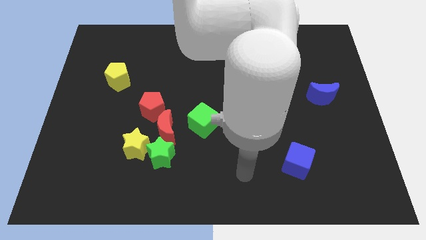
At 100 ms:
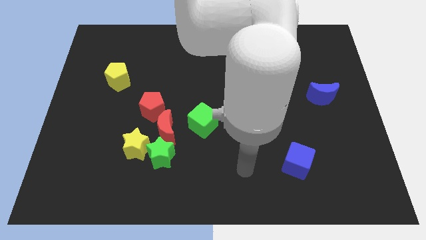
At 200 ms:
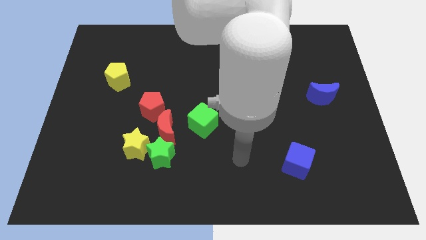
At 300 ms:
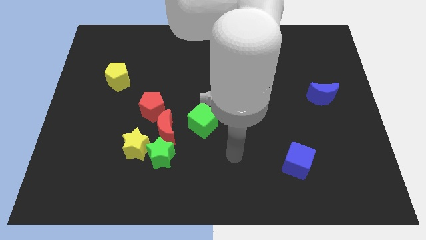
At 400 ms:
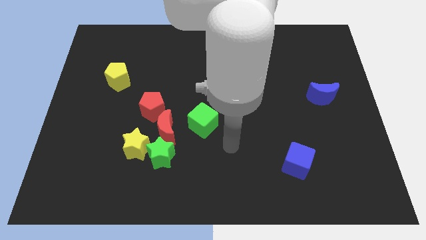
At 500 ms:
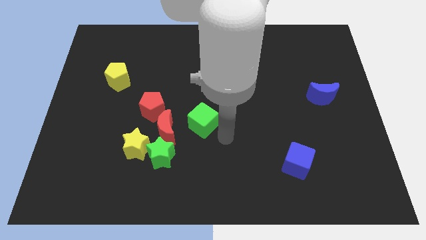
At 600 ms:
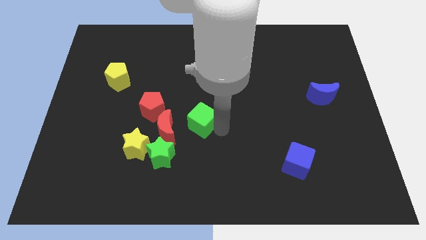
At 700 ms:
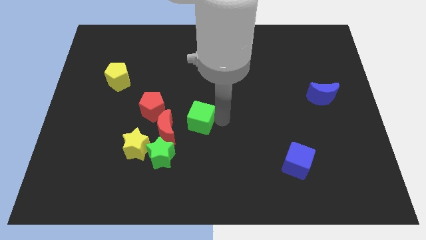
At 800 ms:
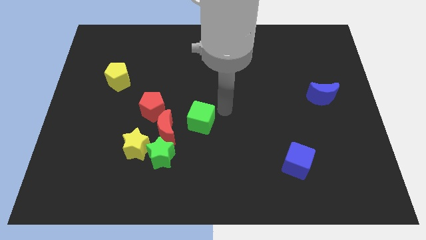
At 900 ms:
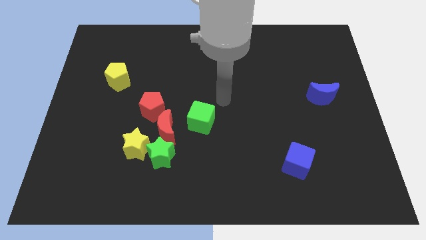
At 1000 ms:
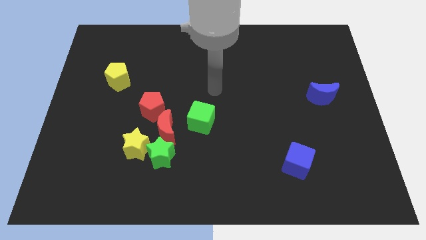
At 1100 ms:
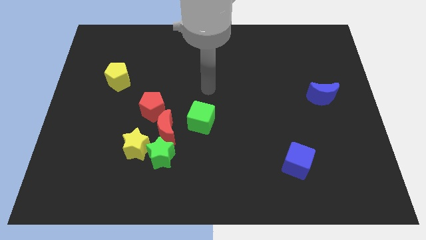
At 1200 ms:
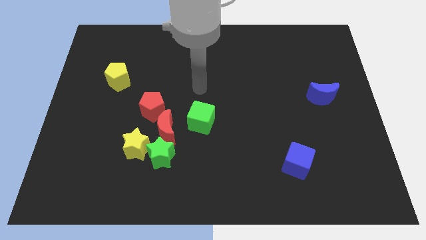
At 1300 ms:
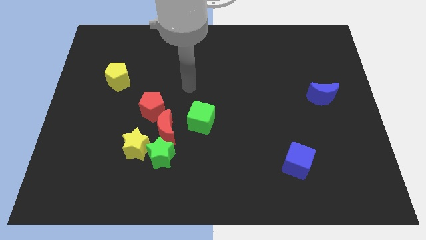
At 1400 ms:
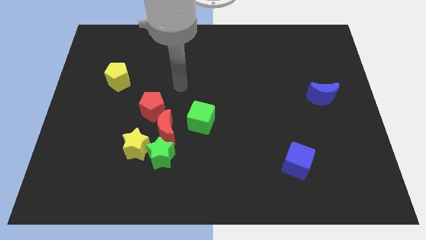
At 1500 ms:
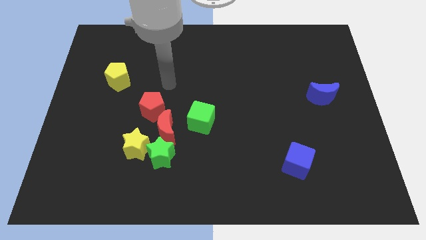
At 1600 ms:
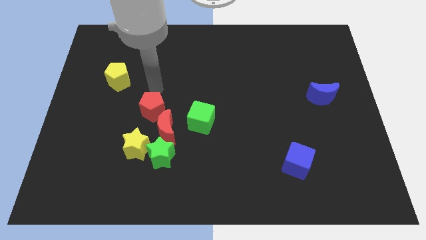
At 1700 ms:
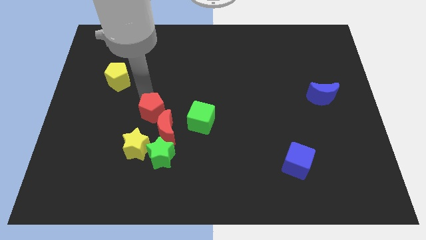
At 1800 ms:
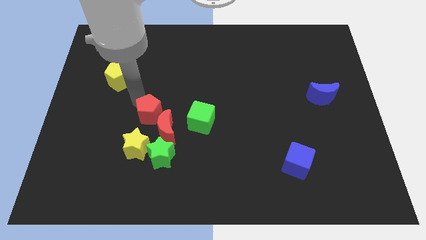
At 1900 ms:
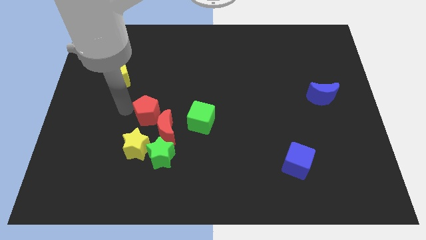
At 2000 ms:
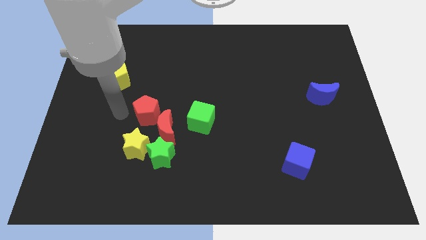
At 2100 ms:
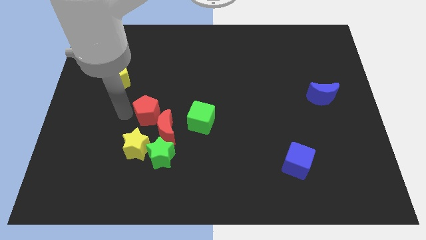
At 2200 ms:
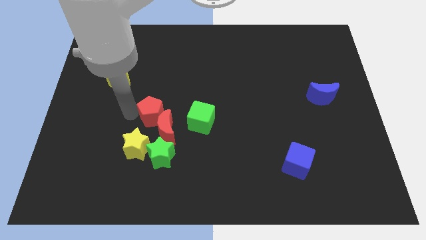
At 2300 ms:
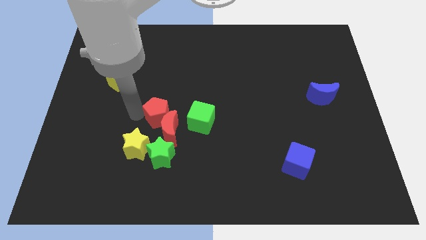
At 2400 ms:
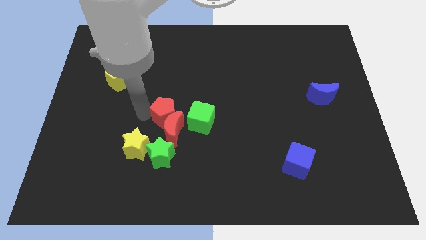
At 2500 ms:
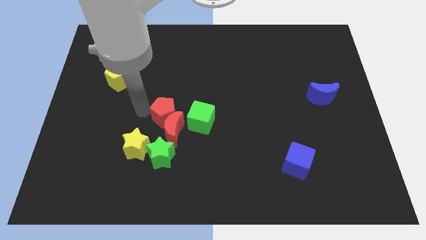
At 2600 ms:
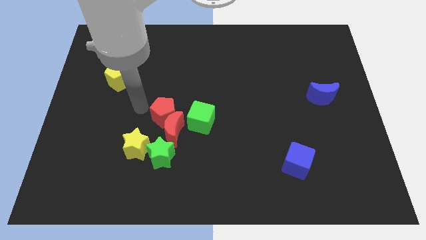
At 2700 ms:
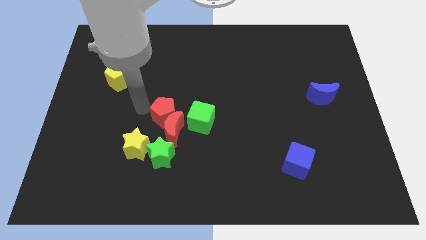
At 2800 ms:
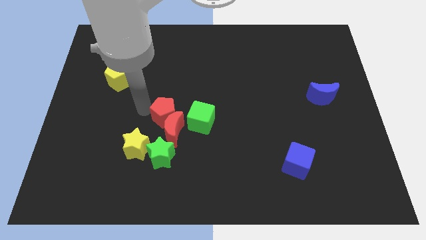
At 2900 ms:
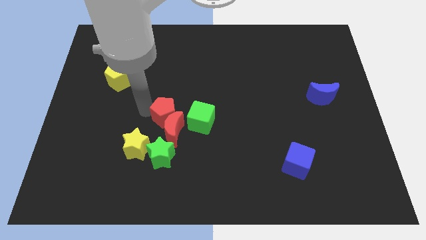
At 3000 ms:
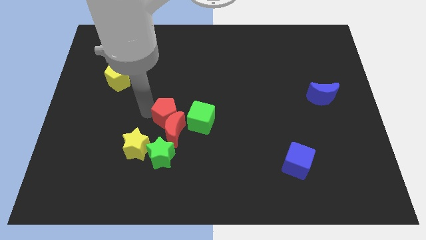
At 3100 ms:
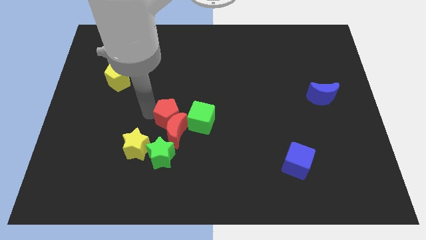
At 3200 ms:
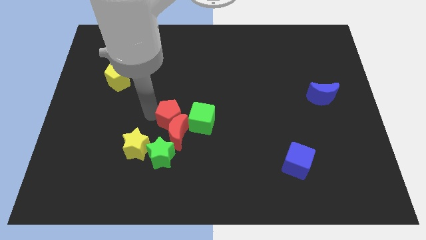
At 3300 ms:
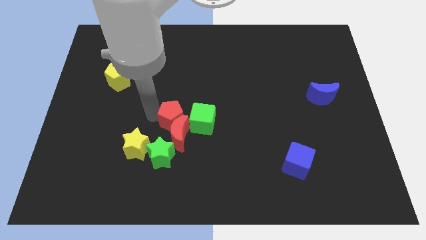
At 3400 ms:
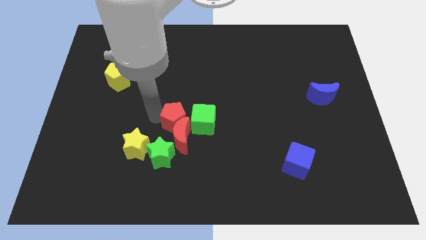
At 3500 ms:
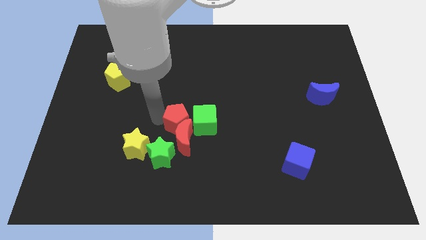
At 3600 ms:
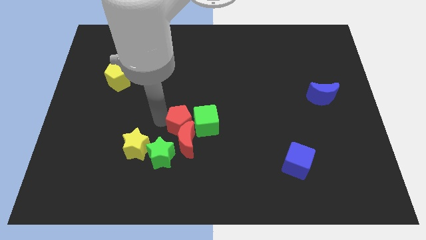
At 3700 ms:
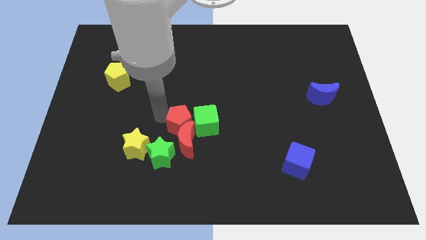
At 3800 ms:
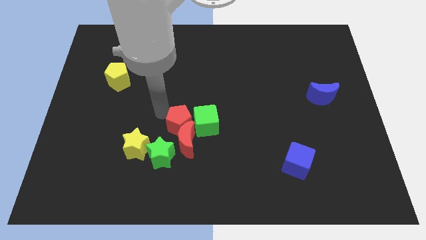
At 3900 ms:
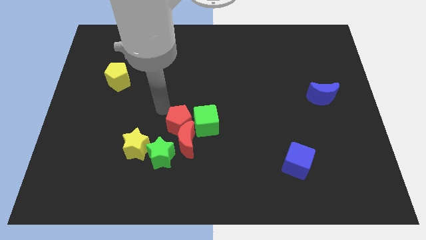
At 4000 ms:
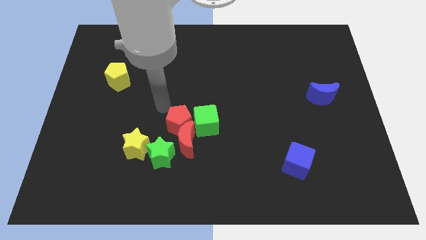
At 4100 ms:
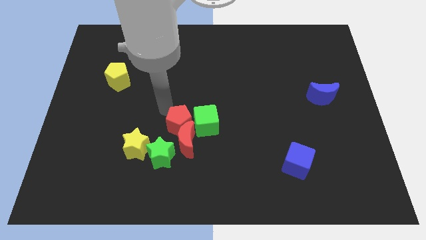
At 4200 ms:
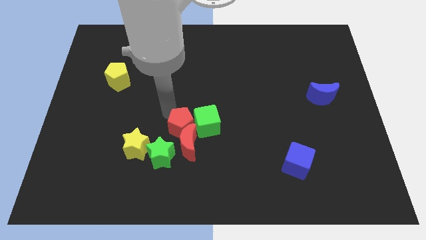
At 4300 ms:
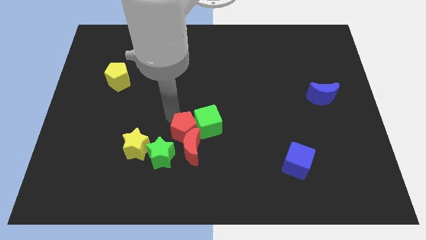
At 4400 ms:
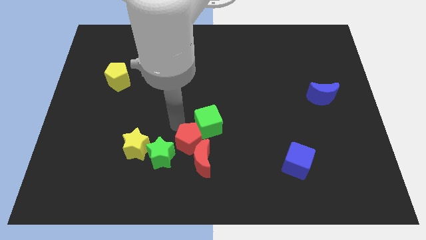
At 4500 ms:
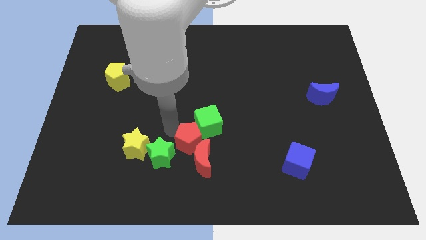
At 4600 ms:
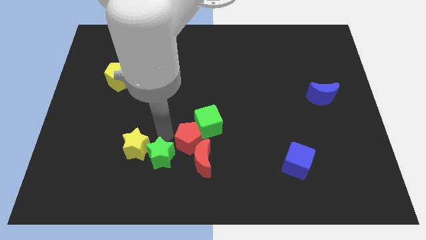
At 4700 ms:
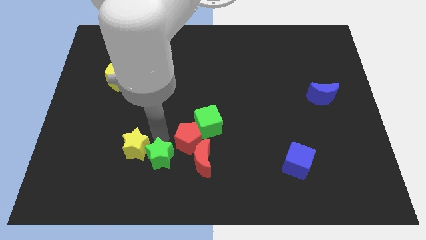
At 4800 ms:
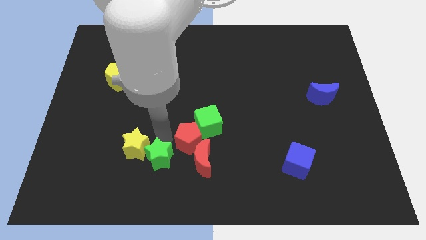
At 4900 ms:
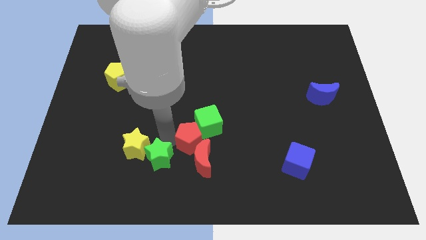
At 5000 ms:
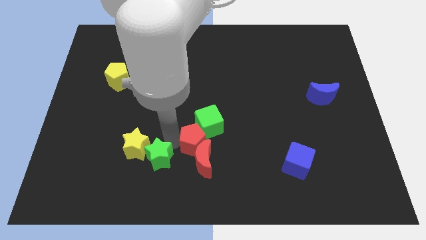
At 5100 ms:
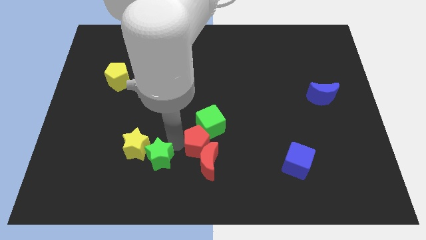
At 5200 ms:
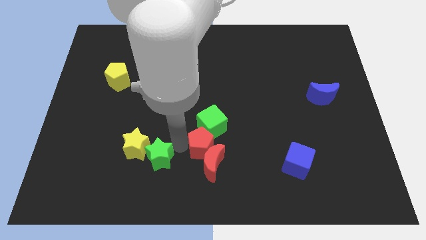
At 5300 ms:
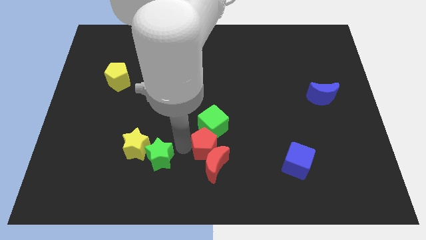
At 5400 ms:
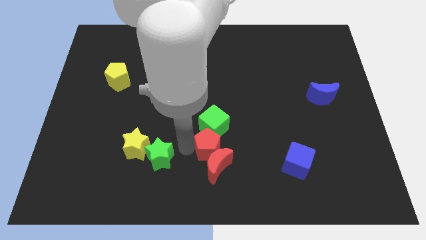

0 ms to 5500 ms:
slide the red pentagon to the bottom right of the green cube

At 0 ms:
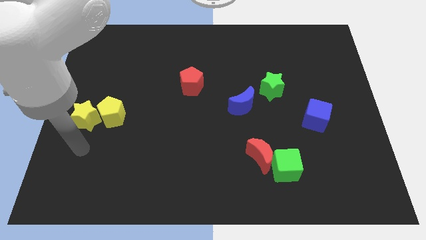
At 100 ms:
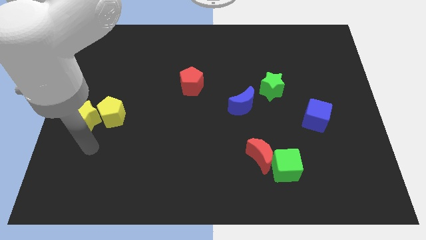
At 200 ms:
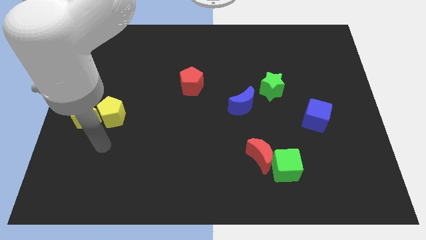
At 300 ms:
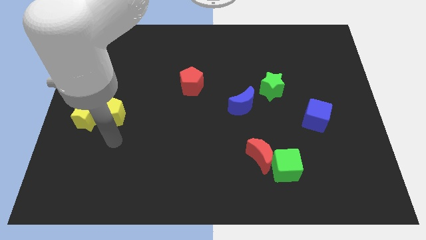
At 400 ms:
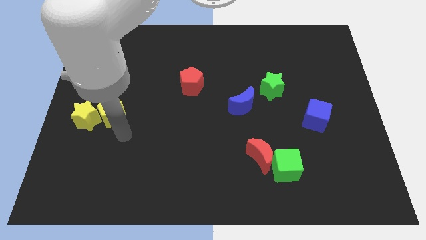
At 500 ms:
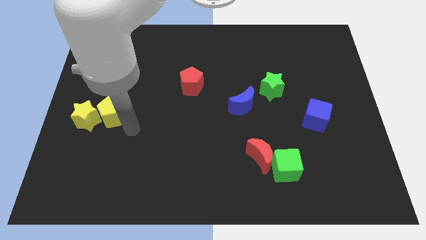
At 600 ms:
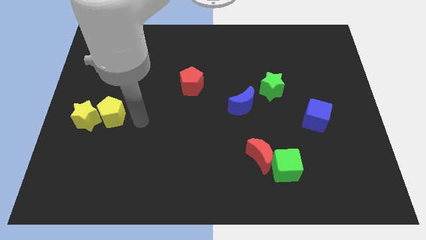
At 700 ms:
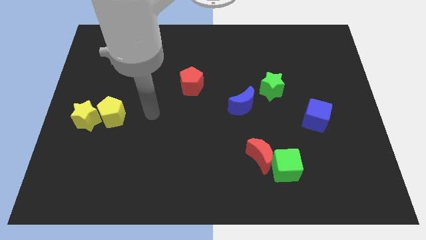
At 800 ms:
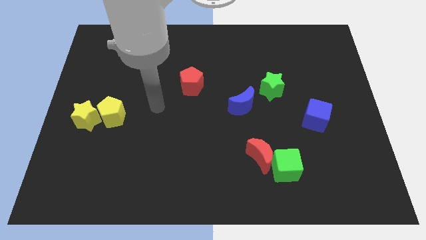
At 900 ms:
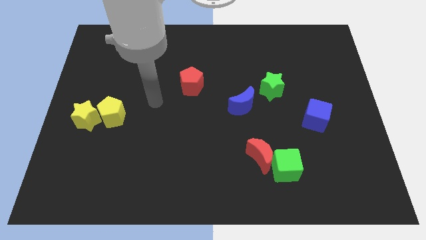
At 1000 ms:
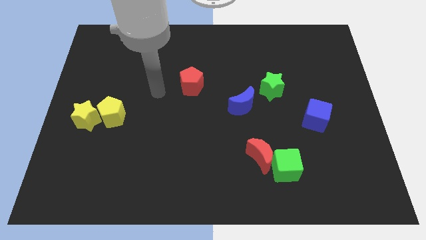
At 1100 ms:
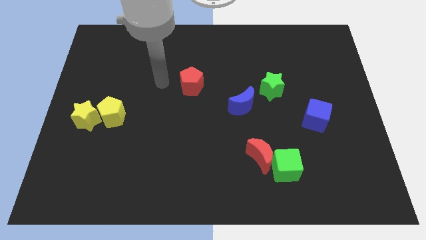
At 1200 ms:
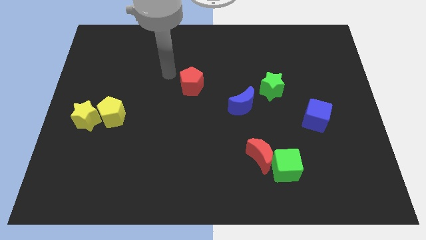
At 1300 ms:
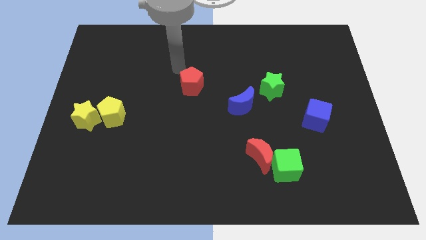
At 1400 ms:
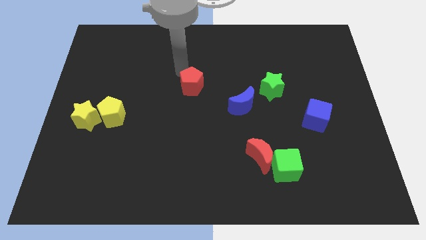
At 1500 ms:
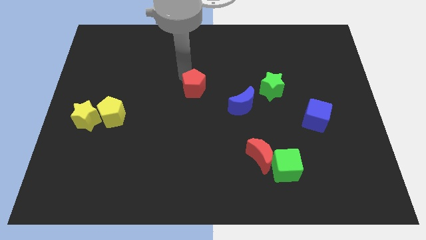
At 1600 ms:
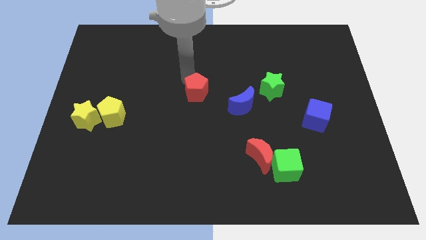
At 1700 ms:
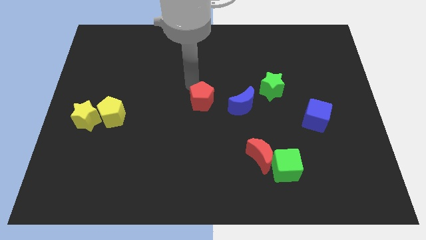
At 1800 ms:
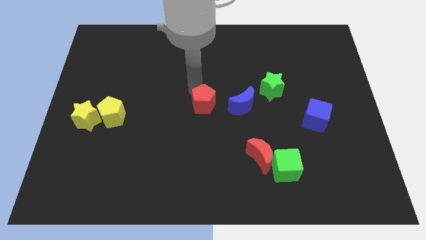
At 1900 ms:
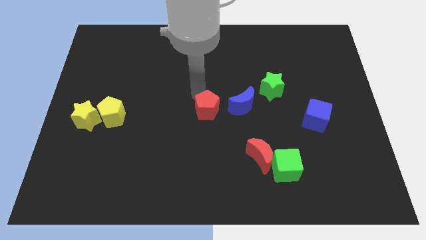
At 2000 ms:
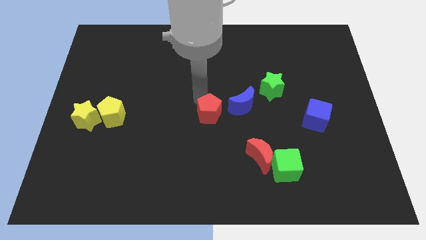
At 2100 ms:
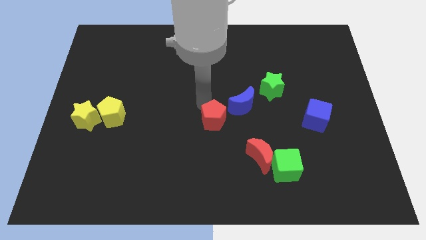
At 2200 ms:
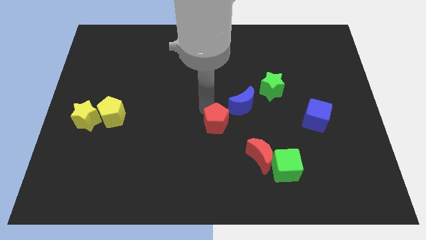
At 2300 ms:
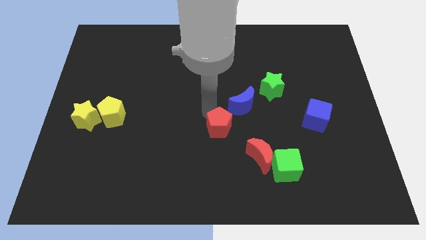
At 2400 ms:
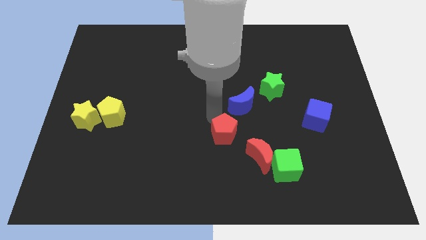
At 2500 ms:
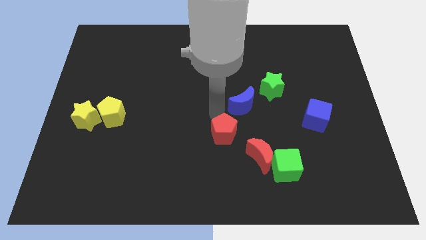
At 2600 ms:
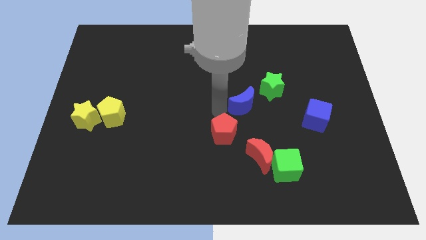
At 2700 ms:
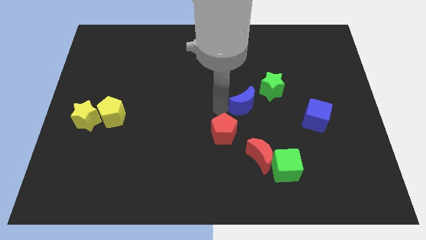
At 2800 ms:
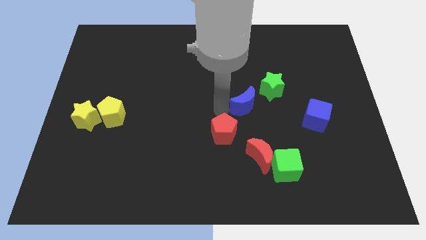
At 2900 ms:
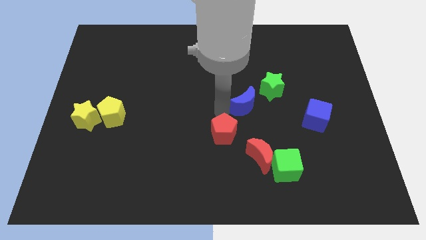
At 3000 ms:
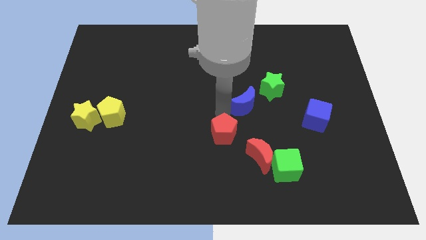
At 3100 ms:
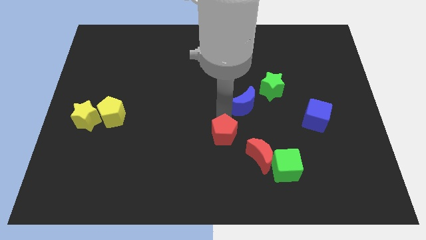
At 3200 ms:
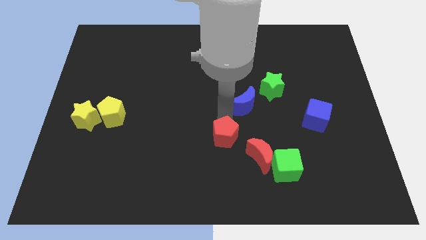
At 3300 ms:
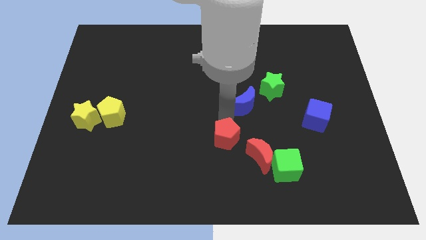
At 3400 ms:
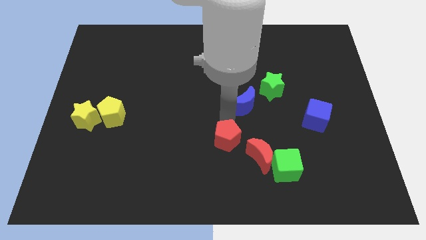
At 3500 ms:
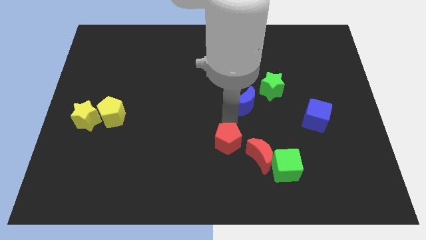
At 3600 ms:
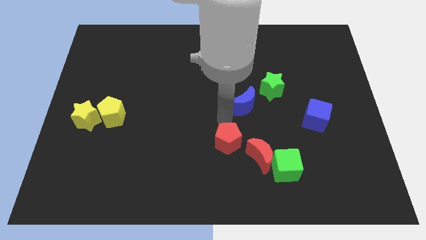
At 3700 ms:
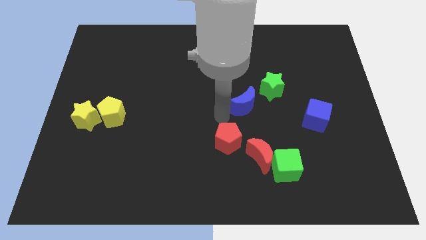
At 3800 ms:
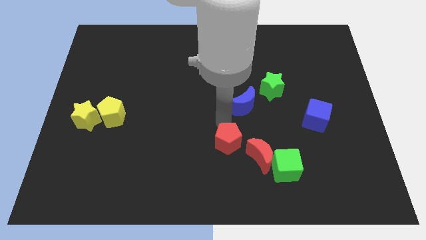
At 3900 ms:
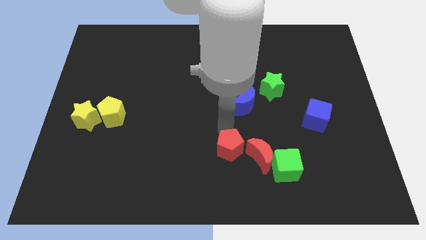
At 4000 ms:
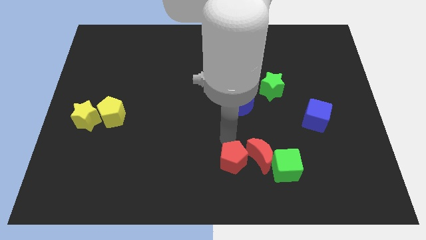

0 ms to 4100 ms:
put the red pentagon to the bottom left of the red moon
